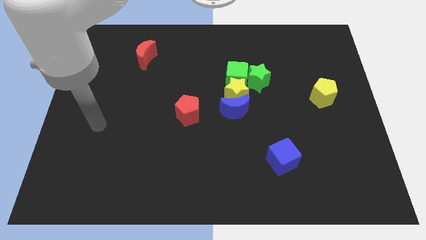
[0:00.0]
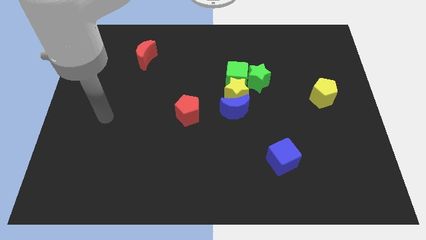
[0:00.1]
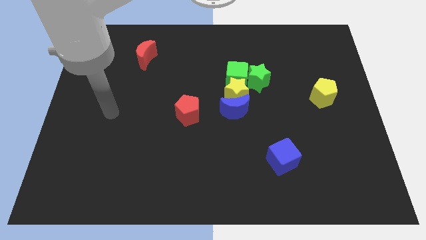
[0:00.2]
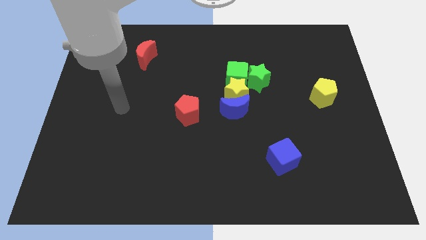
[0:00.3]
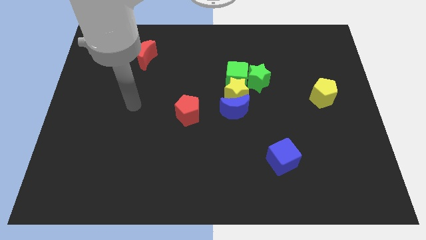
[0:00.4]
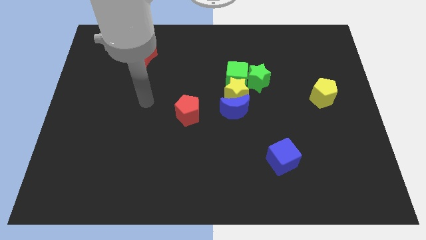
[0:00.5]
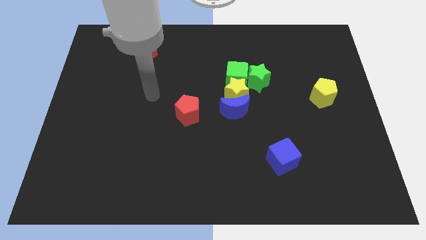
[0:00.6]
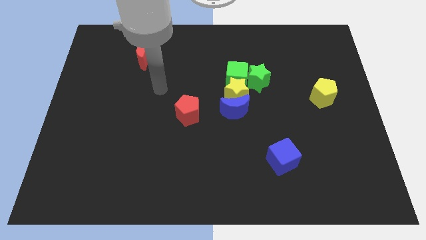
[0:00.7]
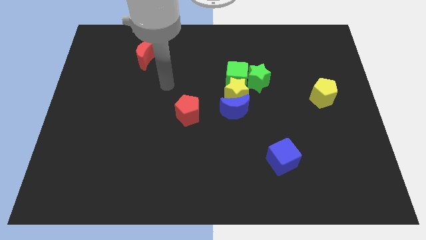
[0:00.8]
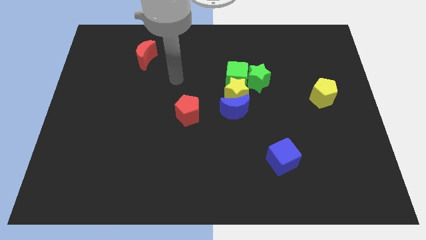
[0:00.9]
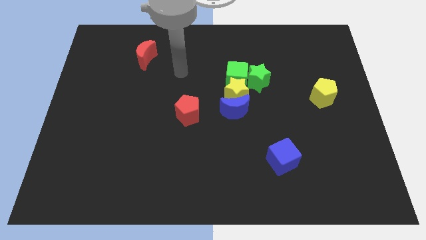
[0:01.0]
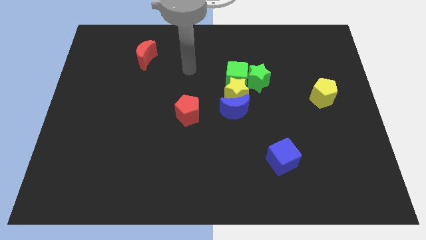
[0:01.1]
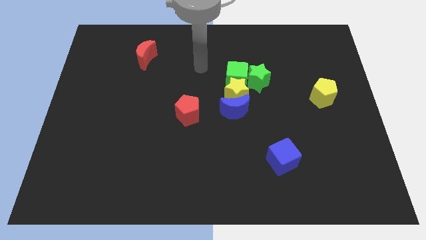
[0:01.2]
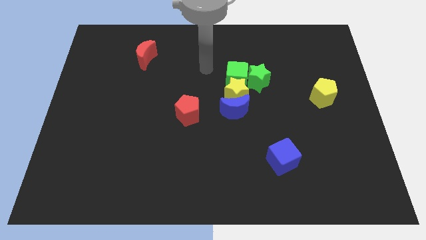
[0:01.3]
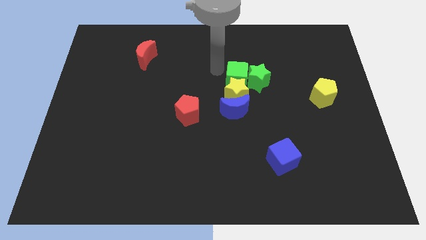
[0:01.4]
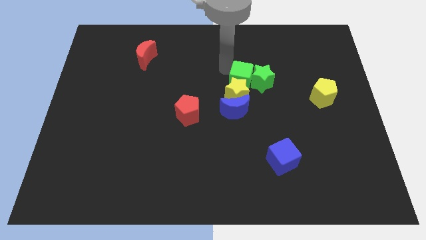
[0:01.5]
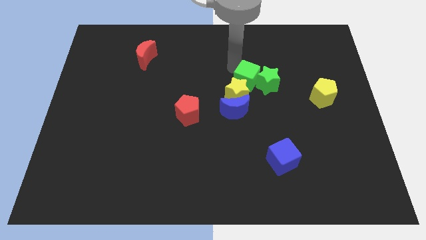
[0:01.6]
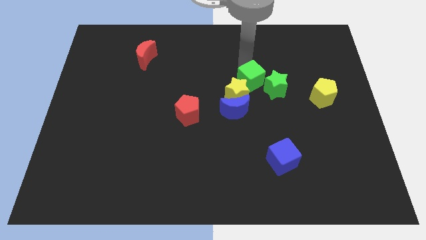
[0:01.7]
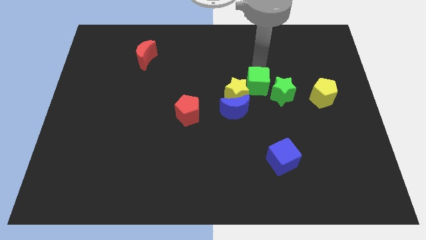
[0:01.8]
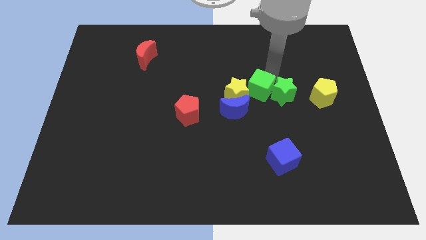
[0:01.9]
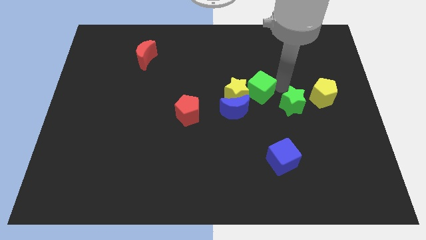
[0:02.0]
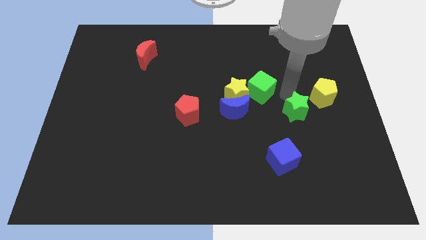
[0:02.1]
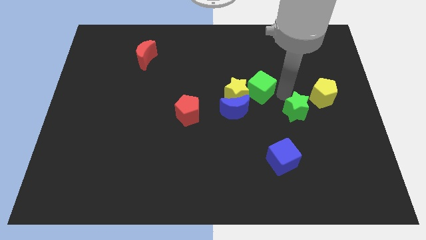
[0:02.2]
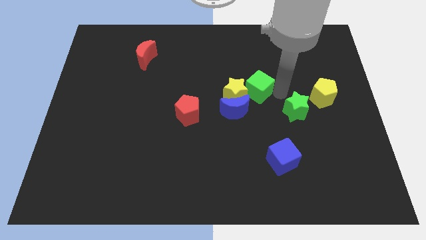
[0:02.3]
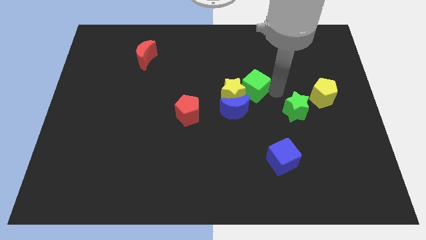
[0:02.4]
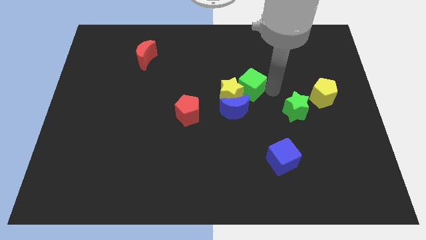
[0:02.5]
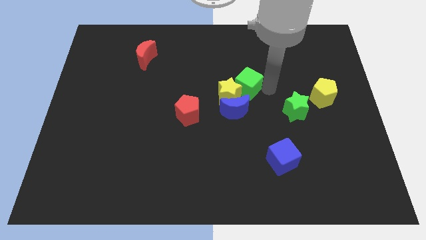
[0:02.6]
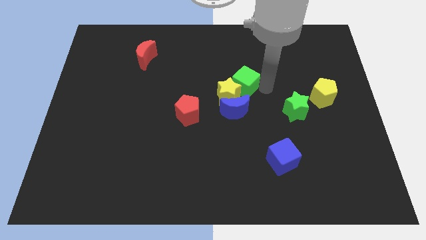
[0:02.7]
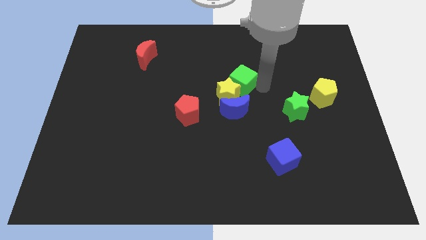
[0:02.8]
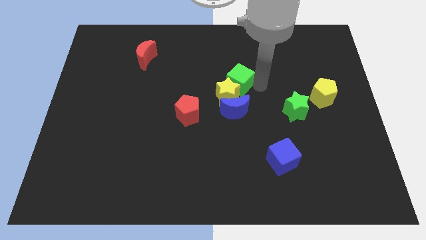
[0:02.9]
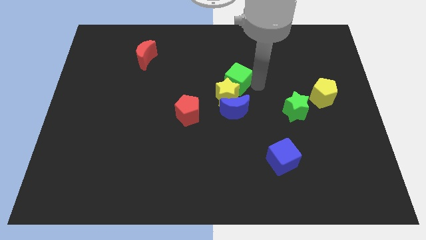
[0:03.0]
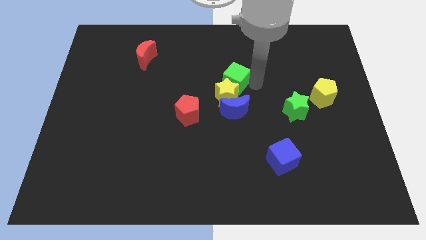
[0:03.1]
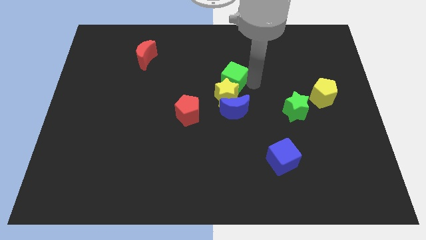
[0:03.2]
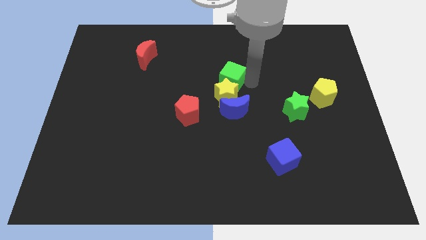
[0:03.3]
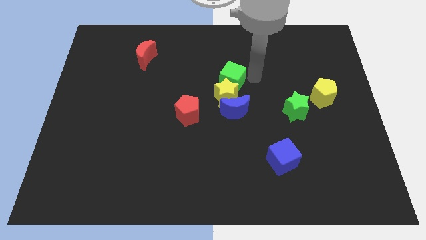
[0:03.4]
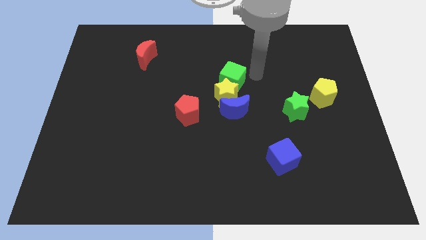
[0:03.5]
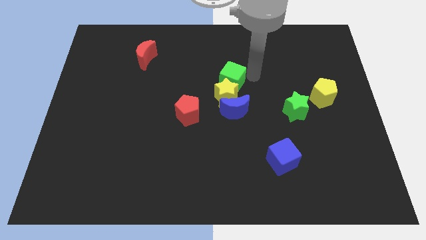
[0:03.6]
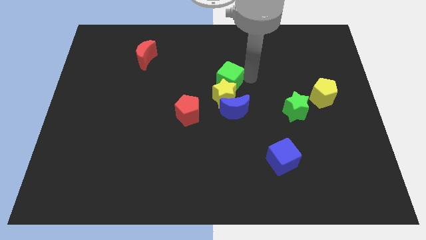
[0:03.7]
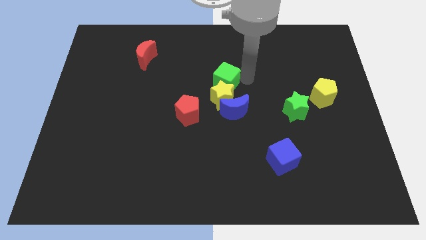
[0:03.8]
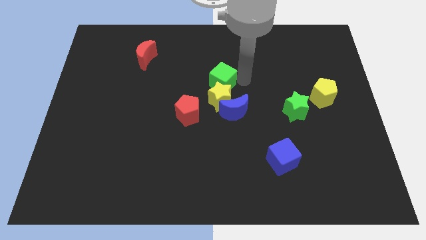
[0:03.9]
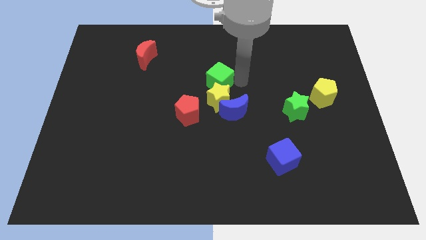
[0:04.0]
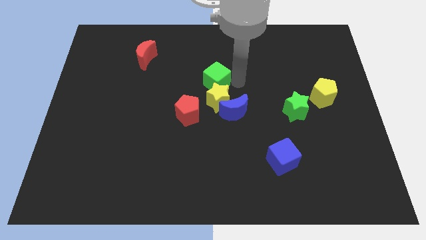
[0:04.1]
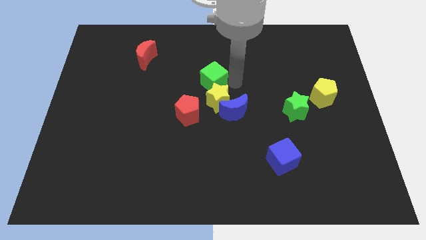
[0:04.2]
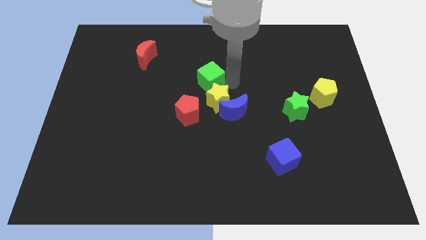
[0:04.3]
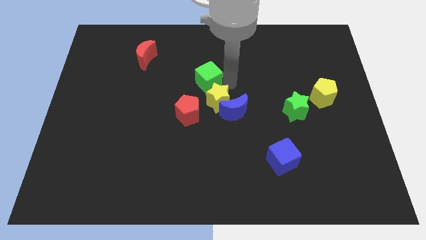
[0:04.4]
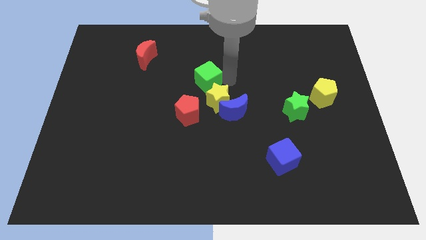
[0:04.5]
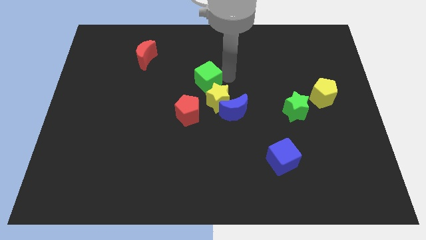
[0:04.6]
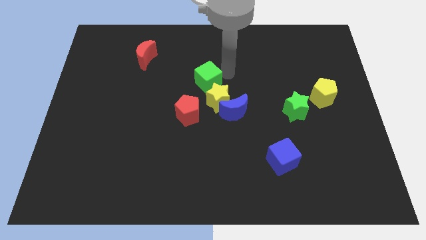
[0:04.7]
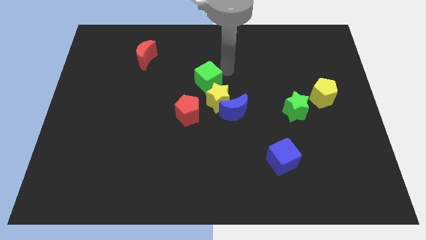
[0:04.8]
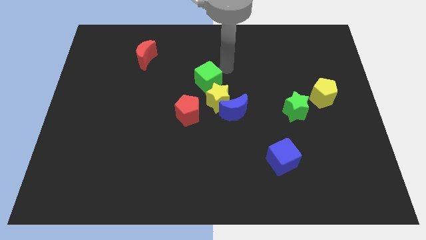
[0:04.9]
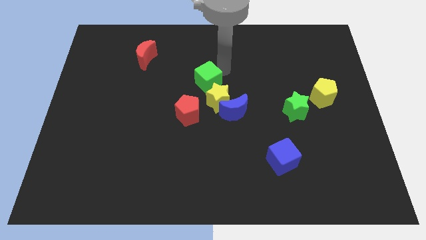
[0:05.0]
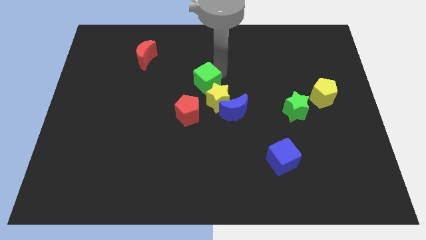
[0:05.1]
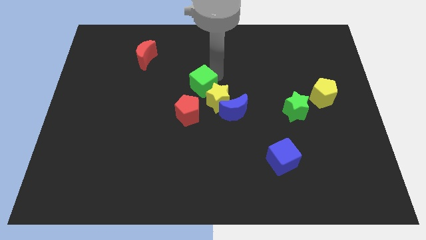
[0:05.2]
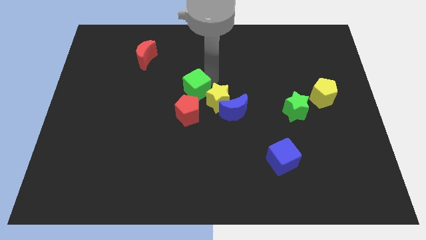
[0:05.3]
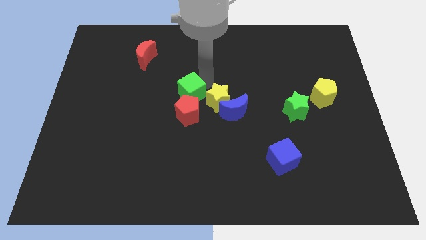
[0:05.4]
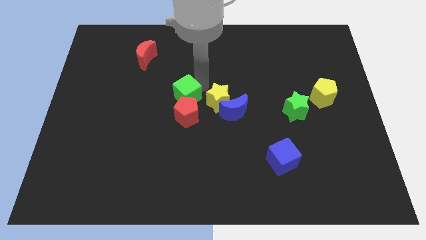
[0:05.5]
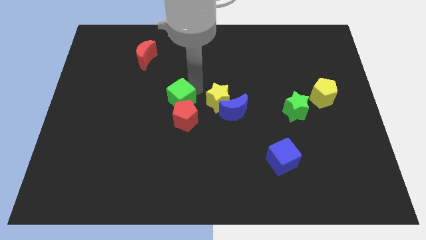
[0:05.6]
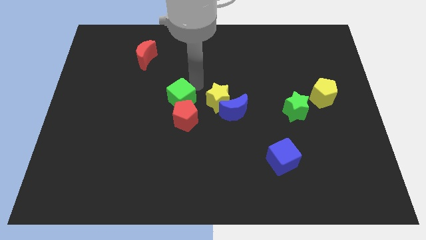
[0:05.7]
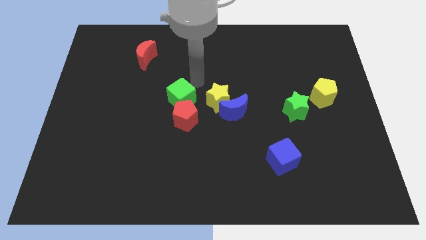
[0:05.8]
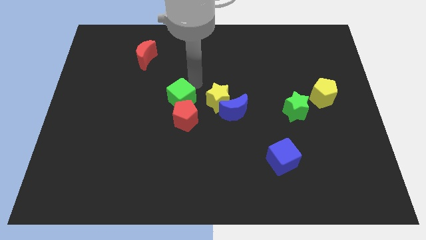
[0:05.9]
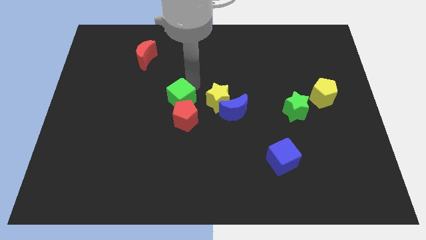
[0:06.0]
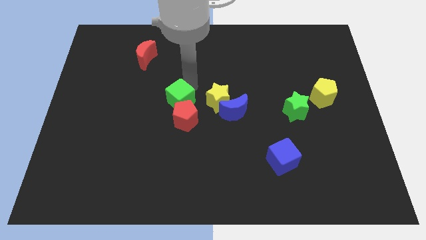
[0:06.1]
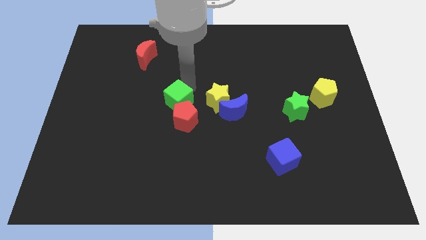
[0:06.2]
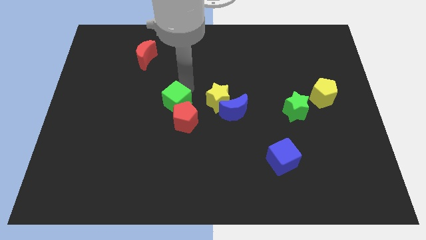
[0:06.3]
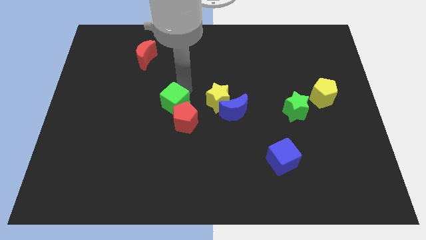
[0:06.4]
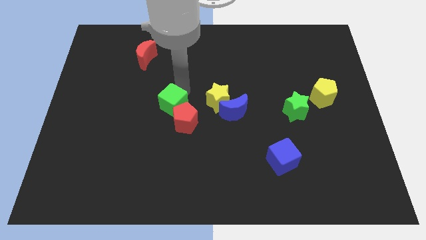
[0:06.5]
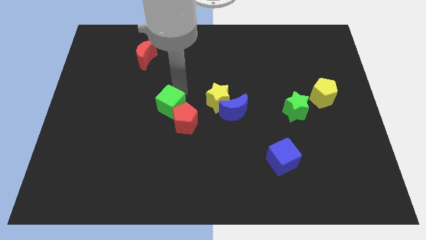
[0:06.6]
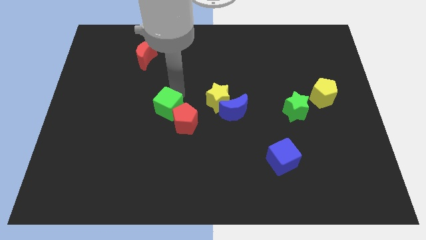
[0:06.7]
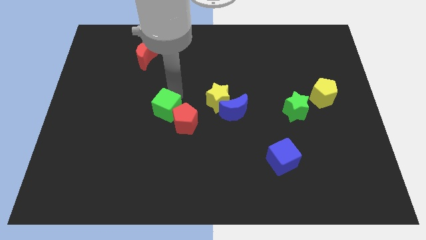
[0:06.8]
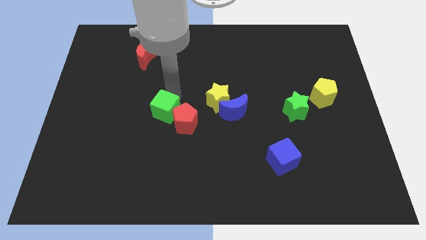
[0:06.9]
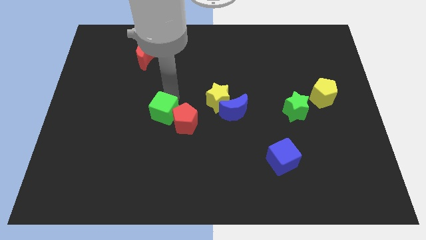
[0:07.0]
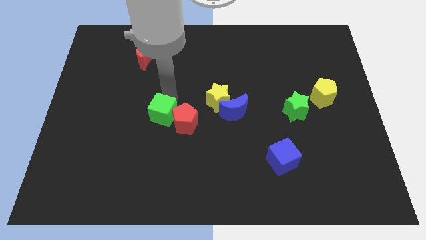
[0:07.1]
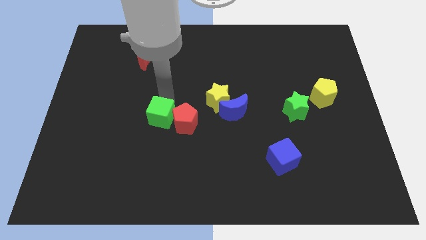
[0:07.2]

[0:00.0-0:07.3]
push the green cube down and left

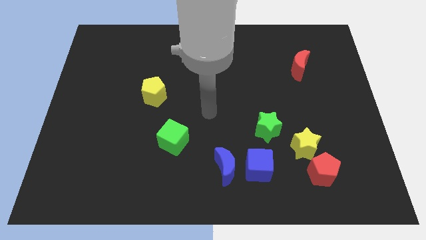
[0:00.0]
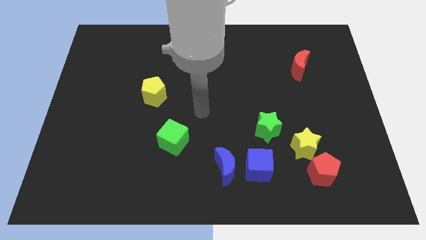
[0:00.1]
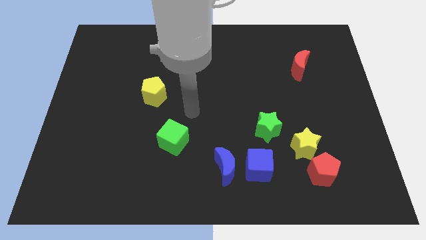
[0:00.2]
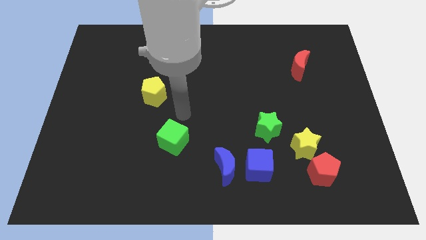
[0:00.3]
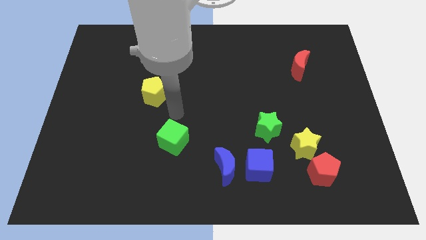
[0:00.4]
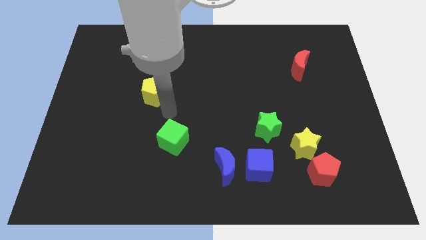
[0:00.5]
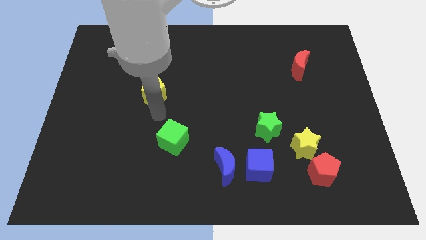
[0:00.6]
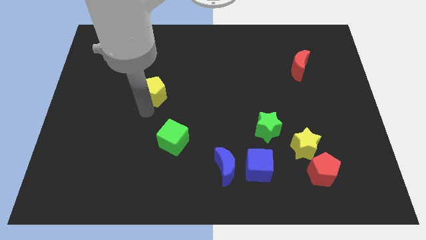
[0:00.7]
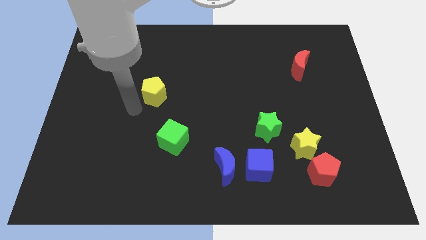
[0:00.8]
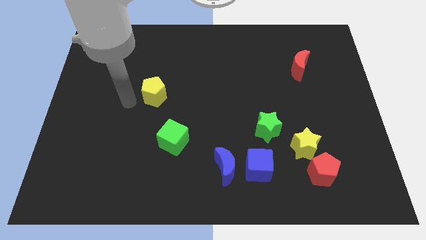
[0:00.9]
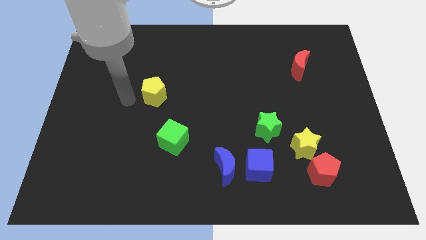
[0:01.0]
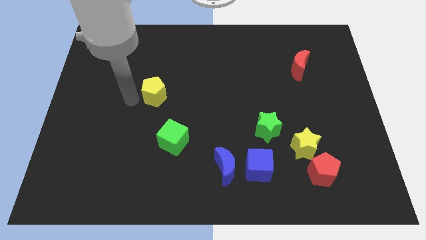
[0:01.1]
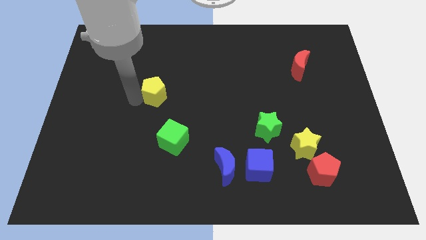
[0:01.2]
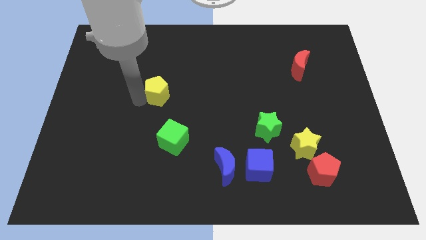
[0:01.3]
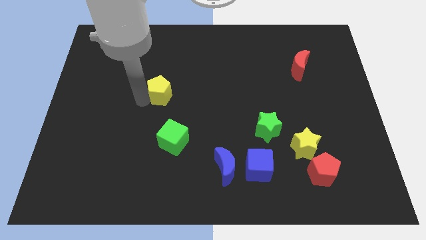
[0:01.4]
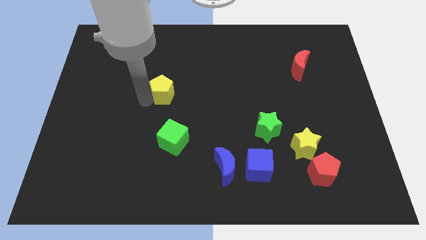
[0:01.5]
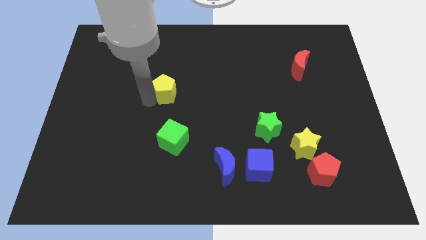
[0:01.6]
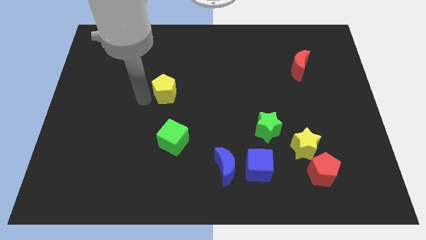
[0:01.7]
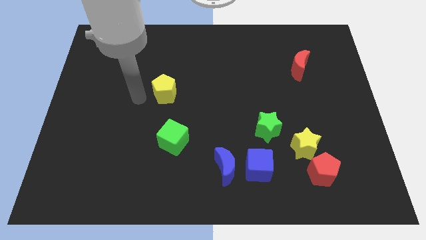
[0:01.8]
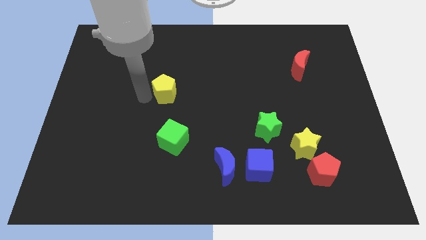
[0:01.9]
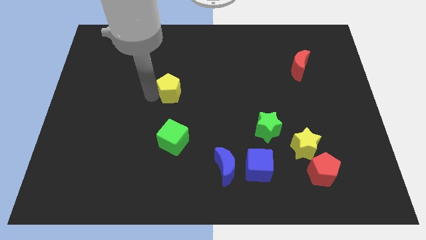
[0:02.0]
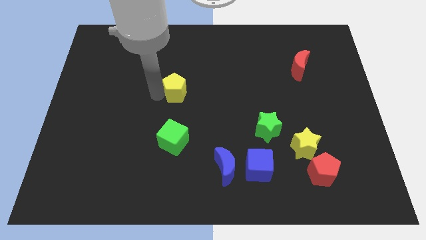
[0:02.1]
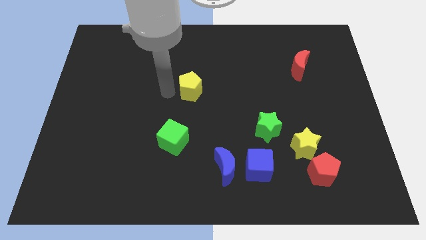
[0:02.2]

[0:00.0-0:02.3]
slightly push the yellow pentagon to the right
